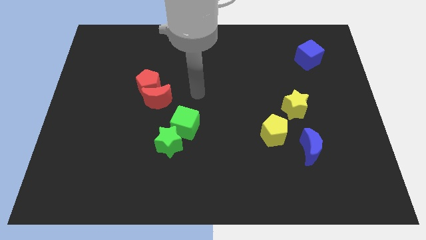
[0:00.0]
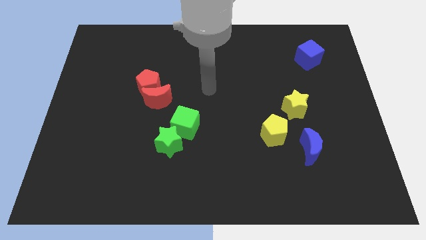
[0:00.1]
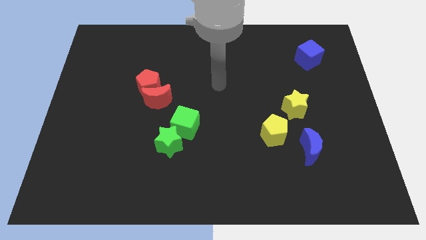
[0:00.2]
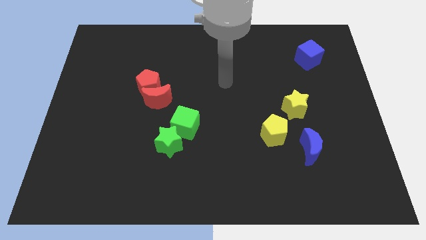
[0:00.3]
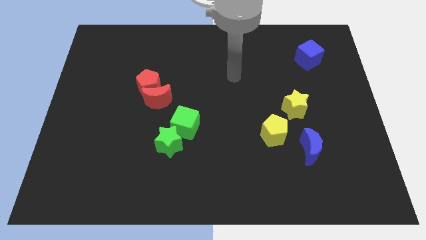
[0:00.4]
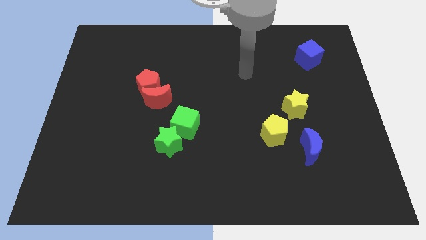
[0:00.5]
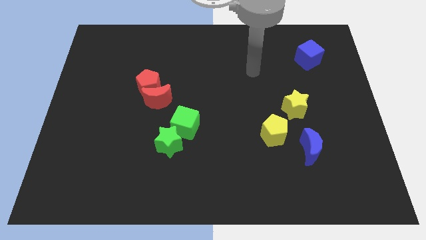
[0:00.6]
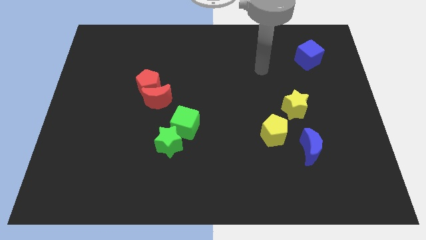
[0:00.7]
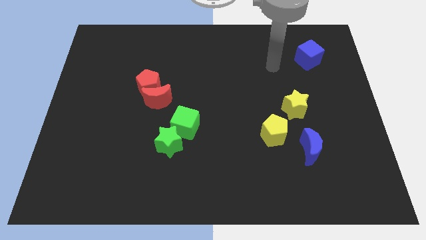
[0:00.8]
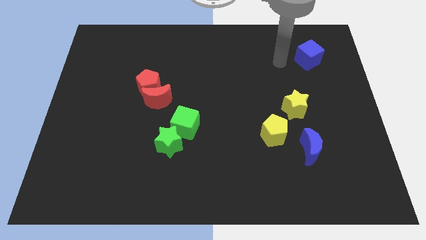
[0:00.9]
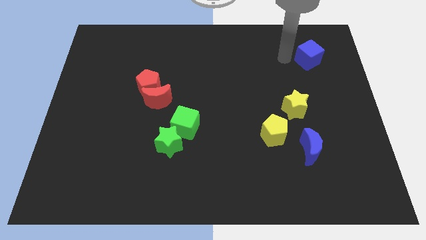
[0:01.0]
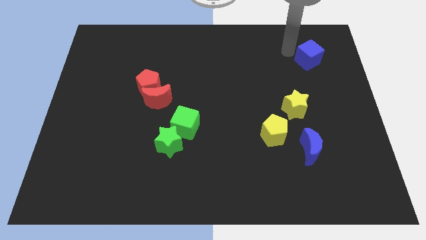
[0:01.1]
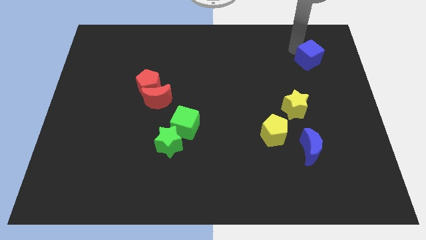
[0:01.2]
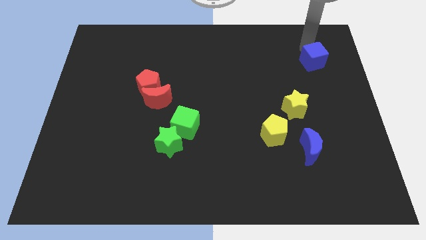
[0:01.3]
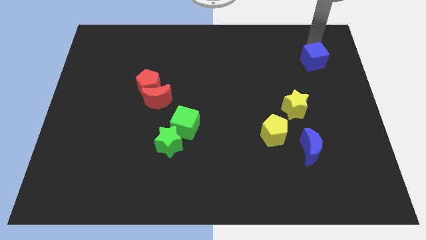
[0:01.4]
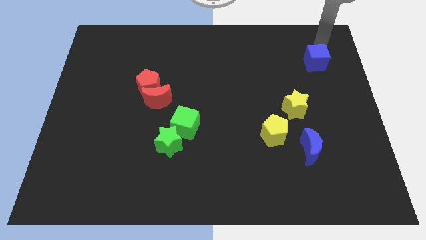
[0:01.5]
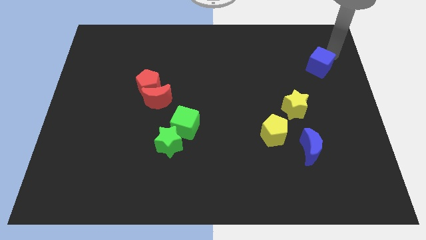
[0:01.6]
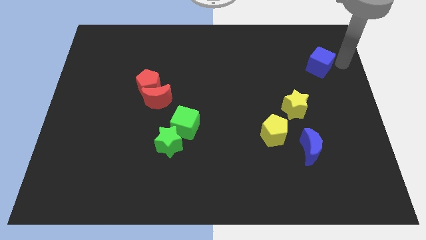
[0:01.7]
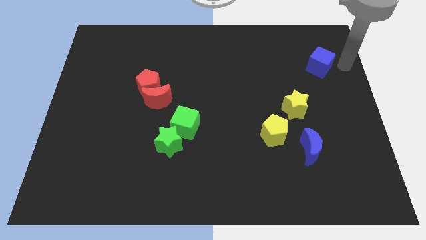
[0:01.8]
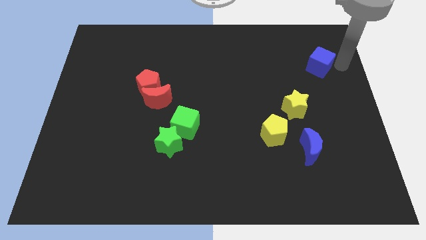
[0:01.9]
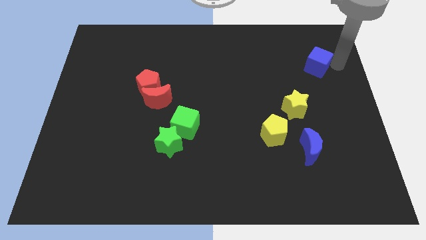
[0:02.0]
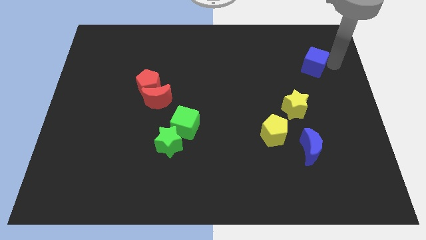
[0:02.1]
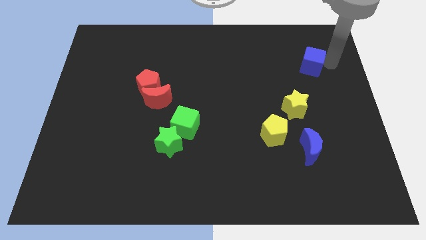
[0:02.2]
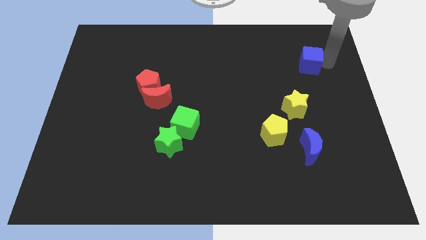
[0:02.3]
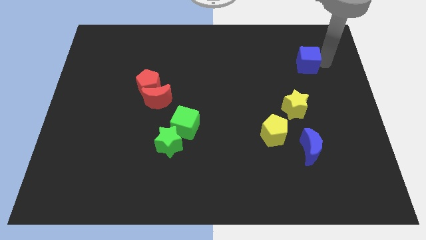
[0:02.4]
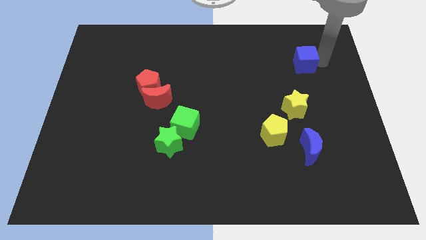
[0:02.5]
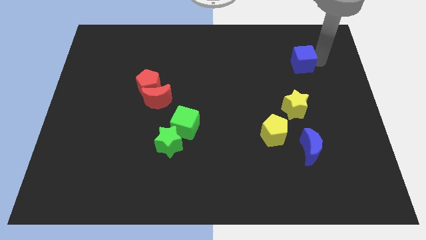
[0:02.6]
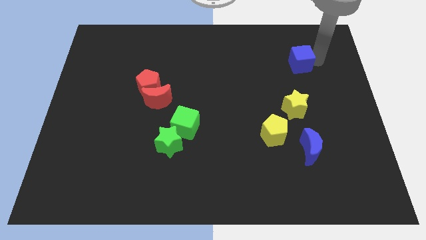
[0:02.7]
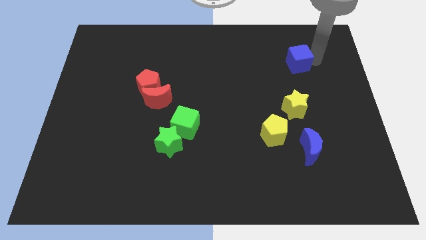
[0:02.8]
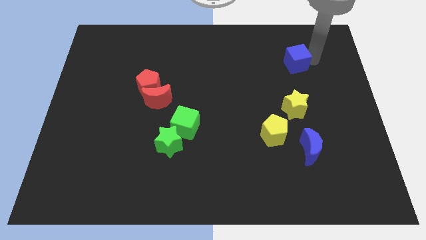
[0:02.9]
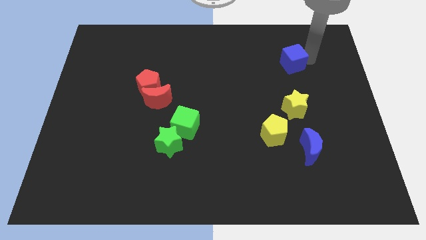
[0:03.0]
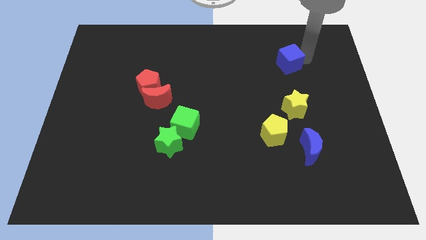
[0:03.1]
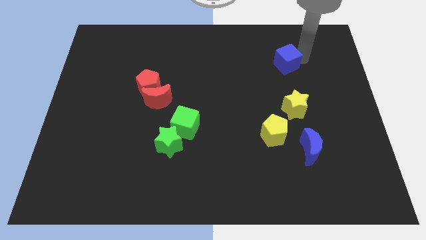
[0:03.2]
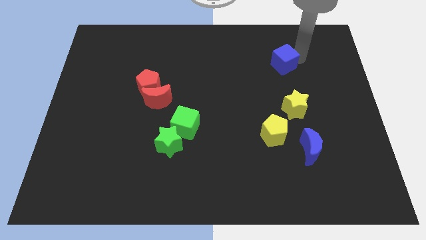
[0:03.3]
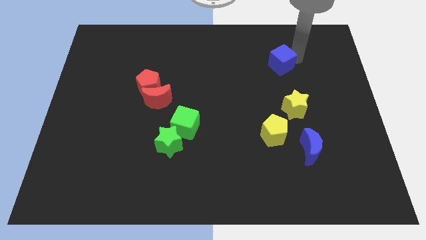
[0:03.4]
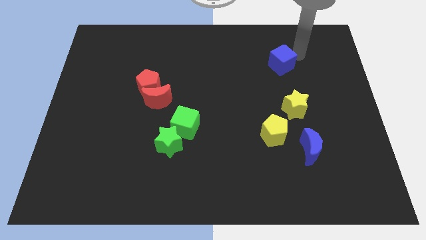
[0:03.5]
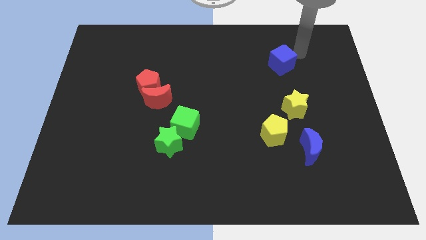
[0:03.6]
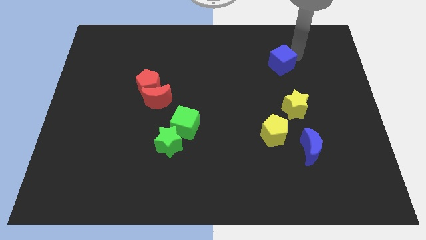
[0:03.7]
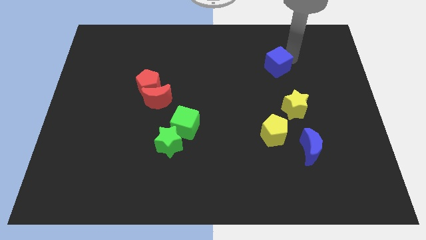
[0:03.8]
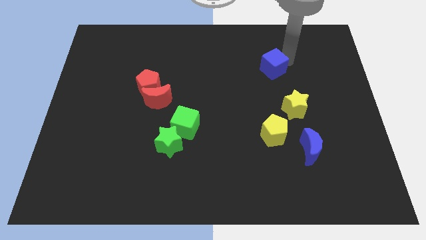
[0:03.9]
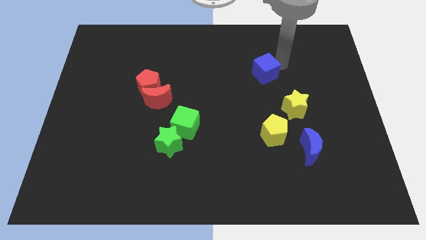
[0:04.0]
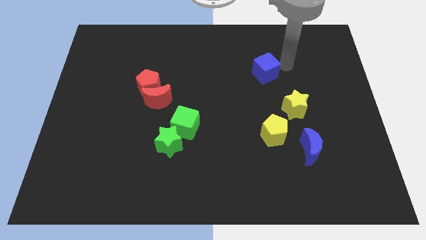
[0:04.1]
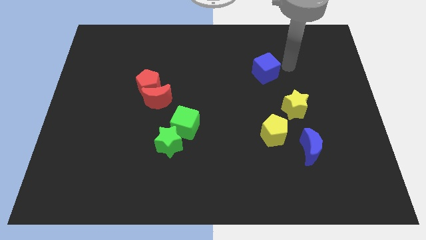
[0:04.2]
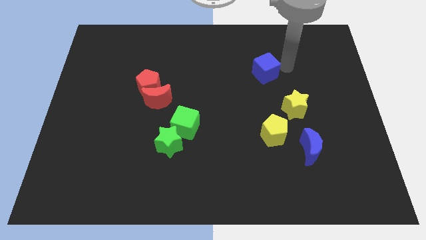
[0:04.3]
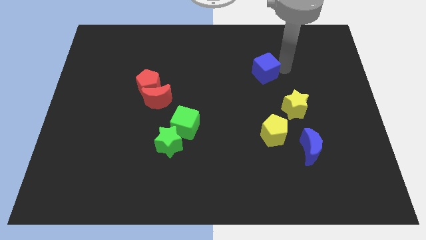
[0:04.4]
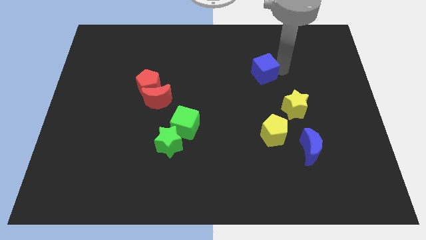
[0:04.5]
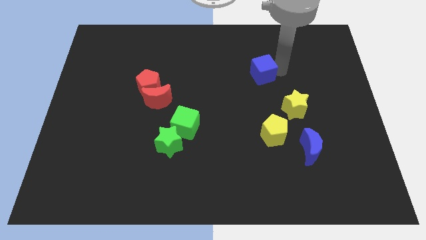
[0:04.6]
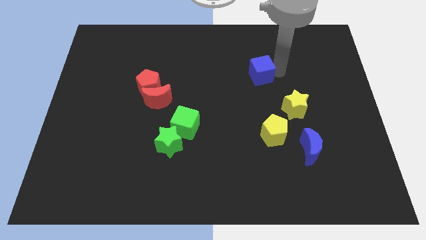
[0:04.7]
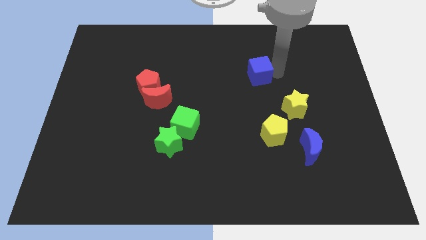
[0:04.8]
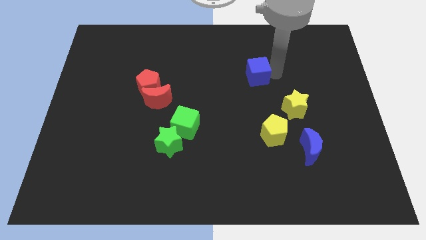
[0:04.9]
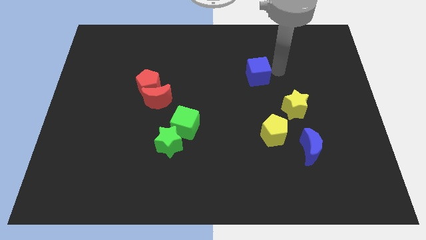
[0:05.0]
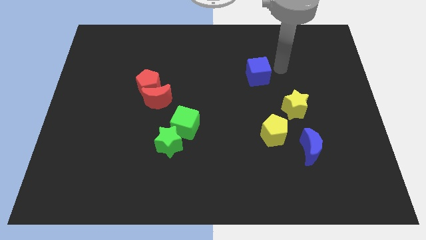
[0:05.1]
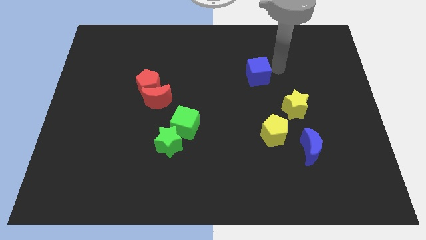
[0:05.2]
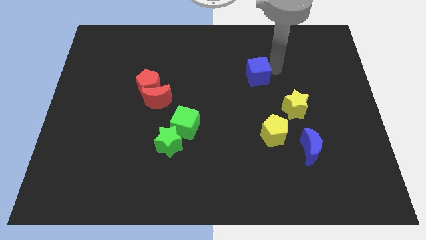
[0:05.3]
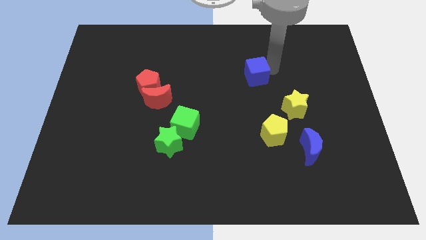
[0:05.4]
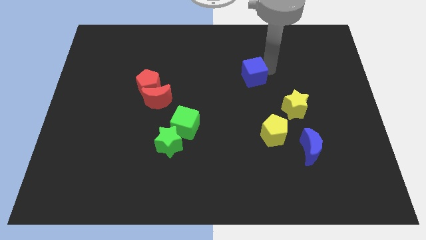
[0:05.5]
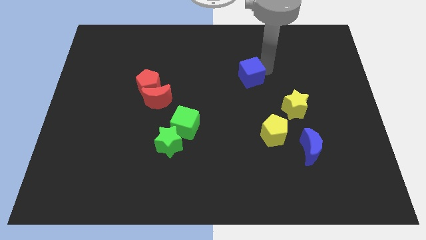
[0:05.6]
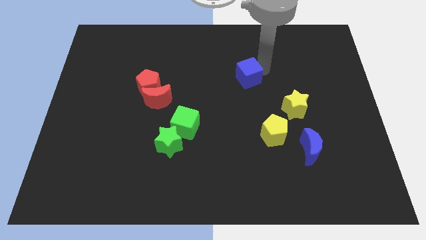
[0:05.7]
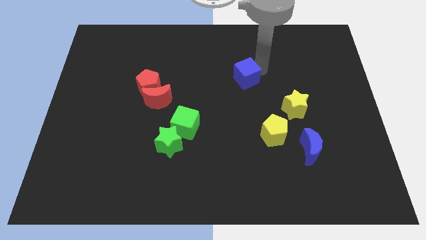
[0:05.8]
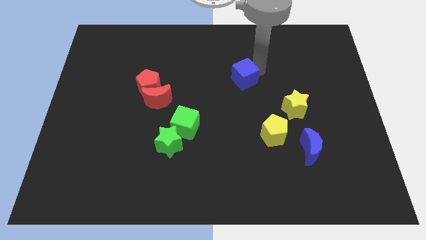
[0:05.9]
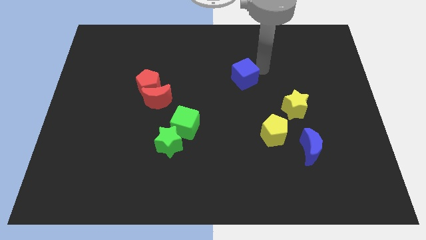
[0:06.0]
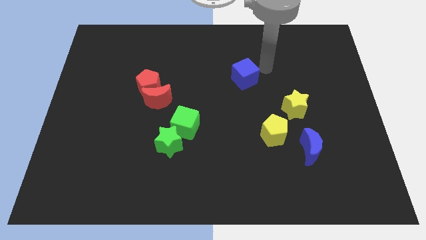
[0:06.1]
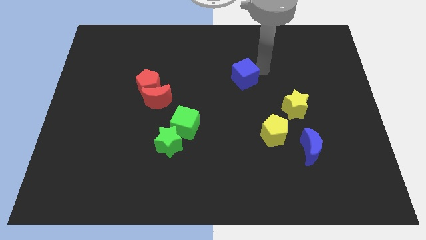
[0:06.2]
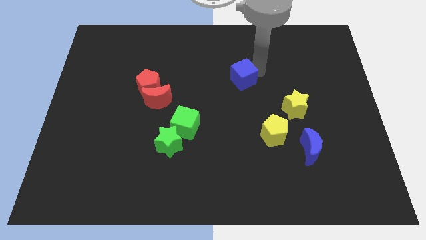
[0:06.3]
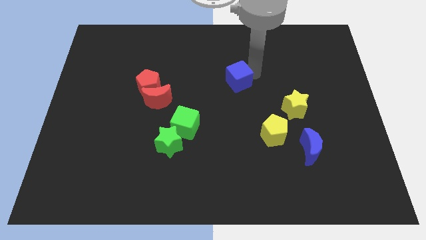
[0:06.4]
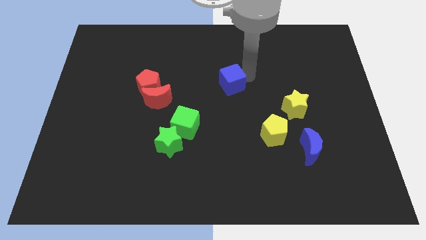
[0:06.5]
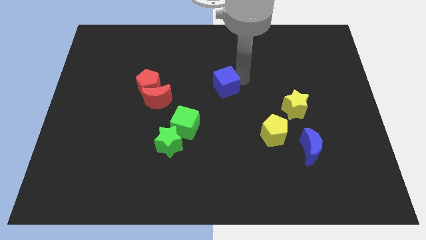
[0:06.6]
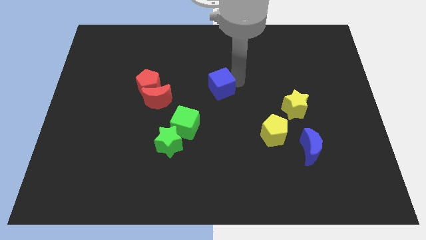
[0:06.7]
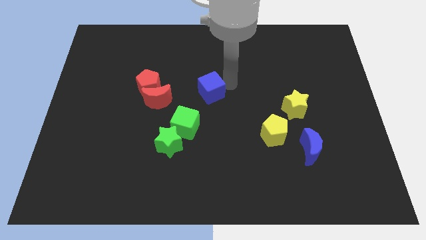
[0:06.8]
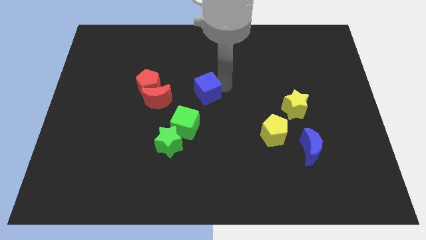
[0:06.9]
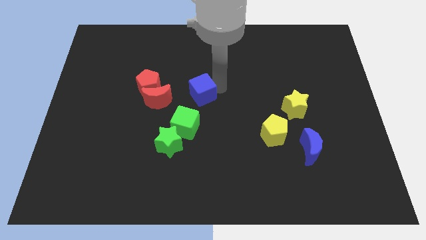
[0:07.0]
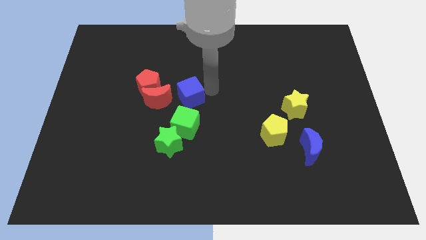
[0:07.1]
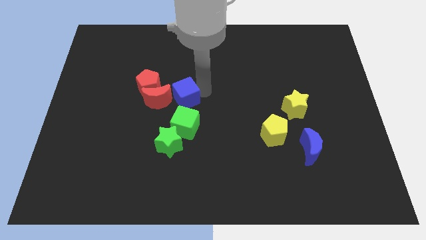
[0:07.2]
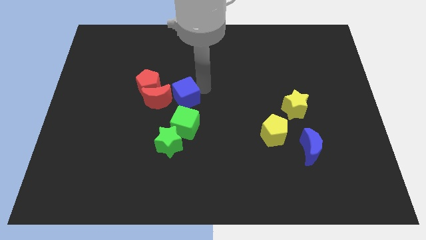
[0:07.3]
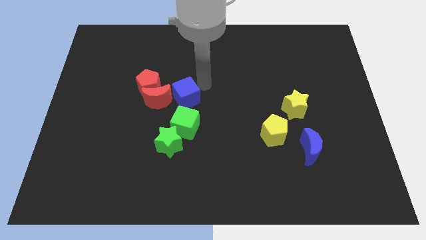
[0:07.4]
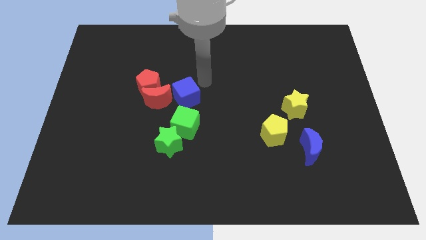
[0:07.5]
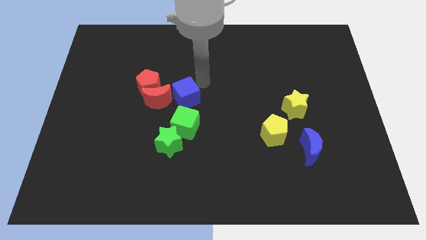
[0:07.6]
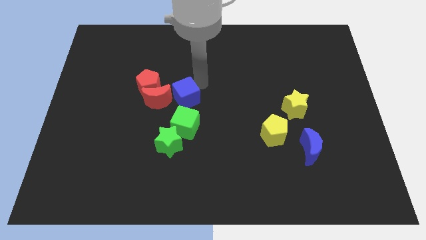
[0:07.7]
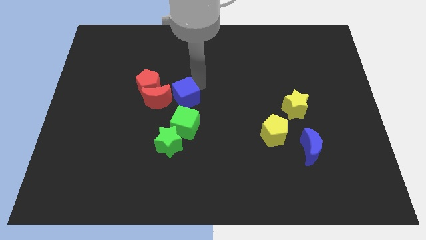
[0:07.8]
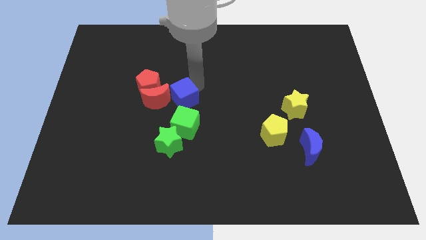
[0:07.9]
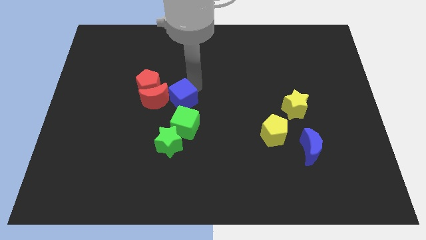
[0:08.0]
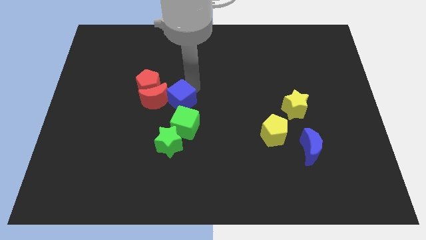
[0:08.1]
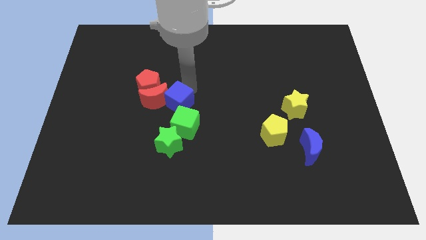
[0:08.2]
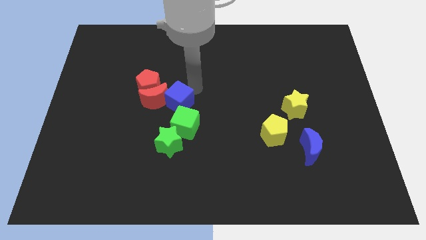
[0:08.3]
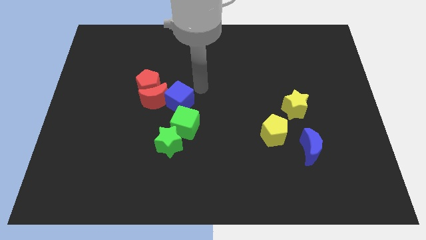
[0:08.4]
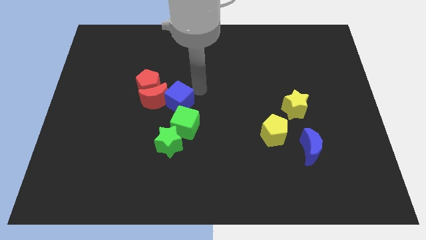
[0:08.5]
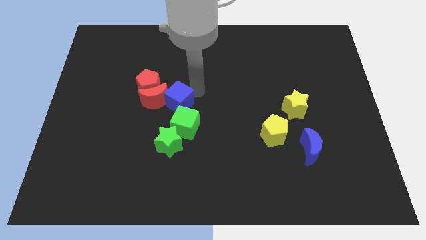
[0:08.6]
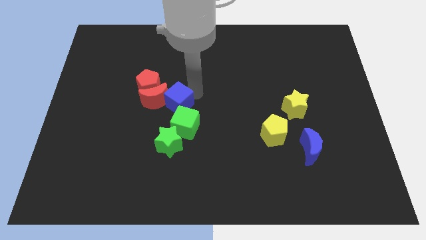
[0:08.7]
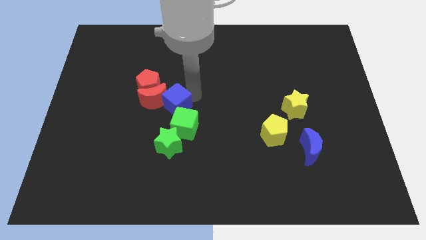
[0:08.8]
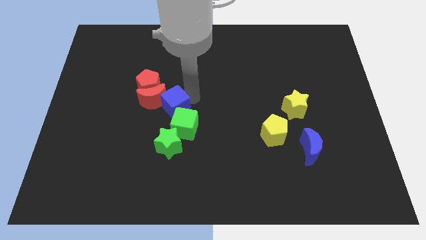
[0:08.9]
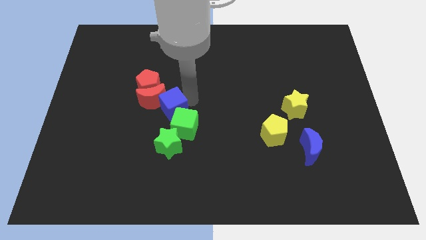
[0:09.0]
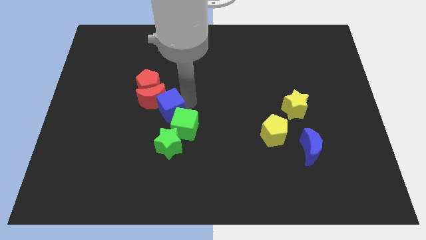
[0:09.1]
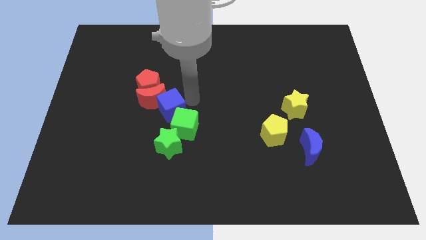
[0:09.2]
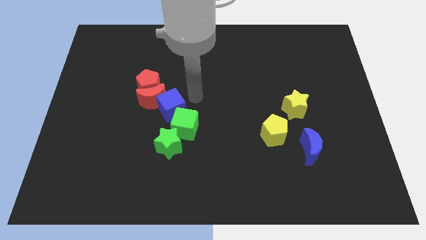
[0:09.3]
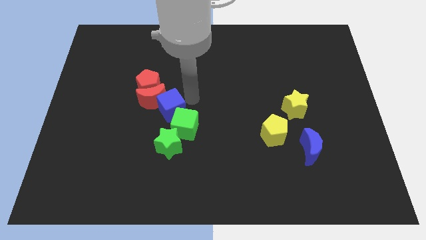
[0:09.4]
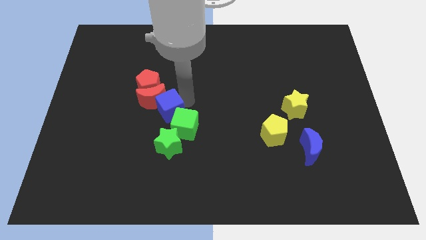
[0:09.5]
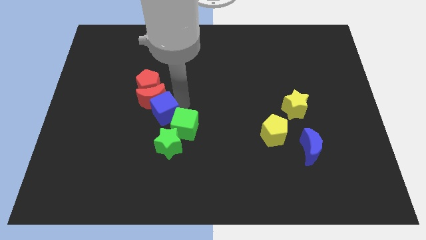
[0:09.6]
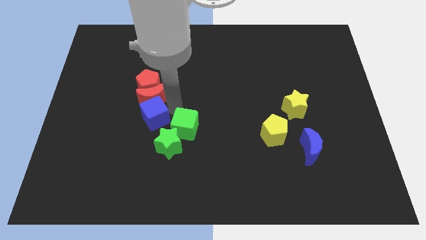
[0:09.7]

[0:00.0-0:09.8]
move the blue cube diagonally down and to the left of the red moon
